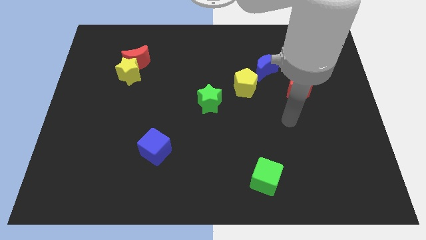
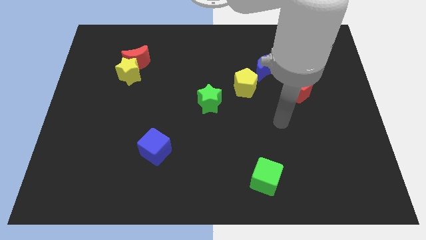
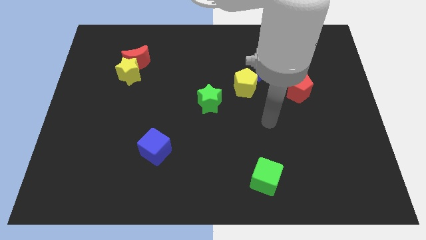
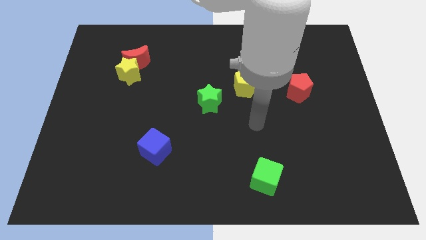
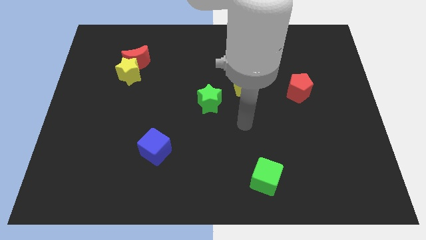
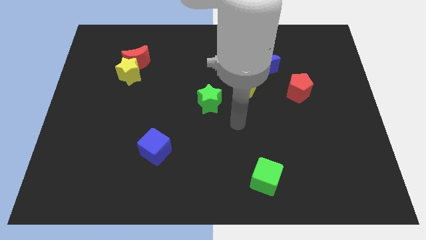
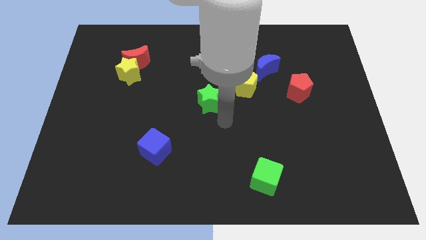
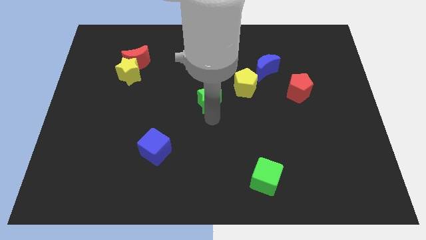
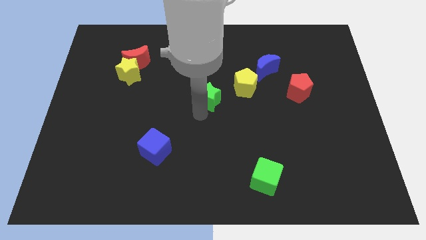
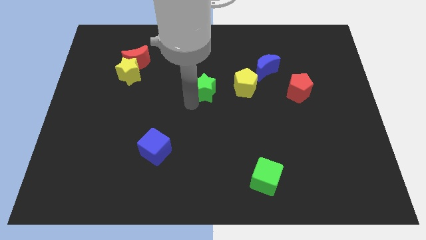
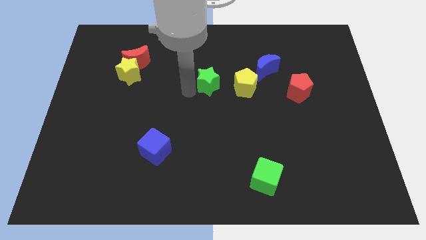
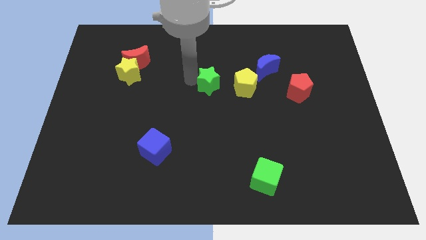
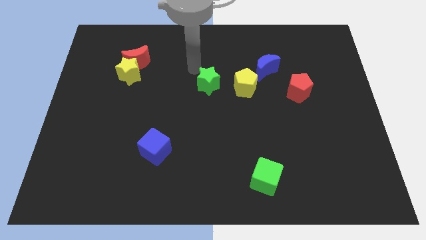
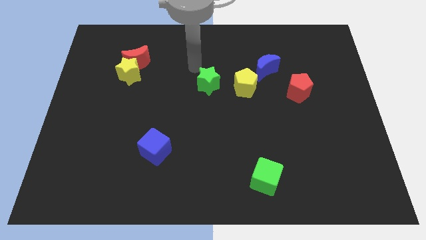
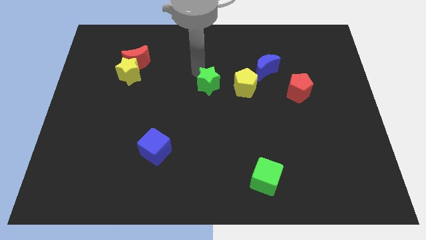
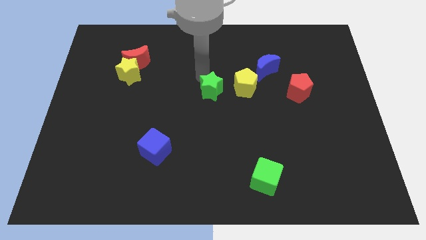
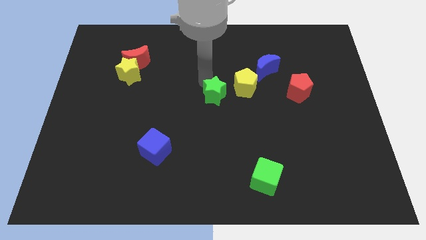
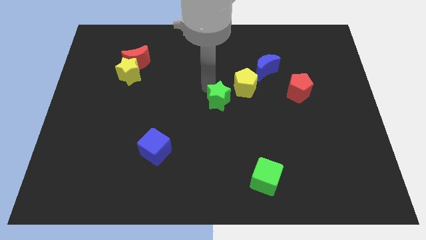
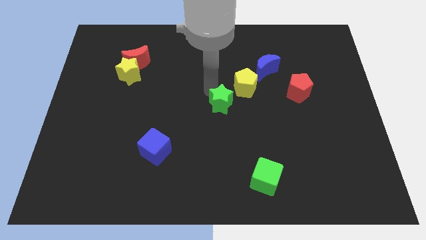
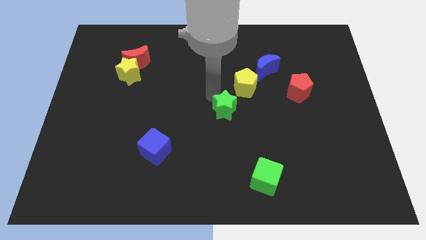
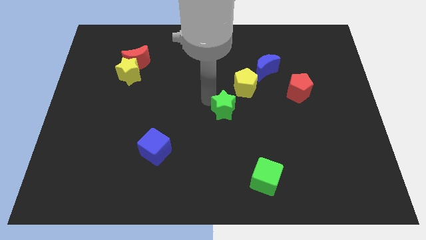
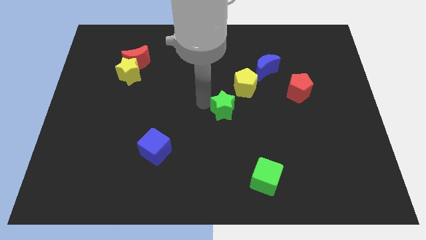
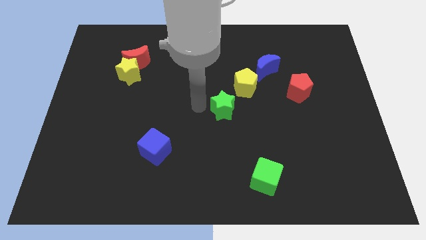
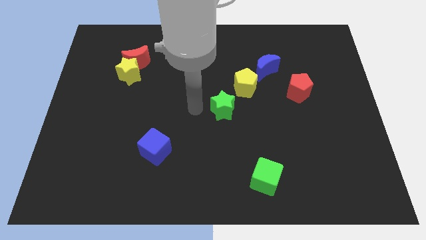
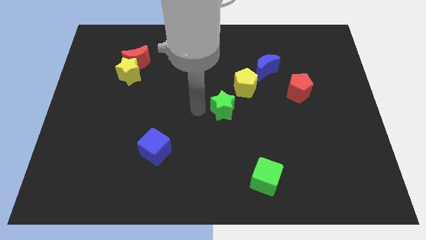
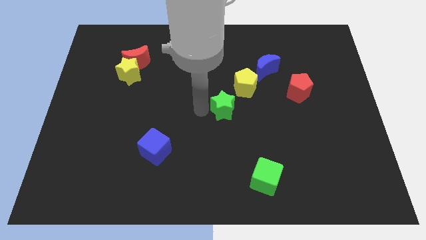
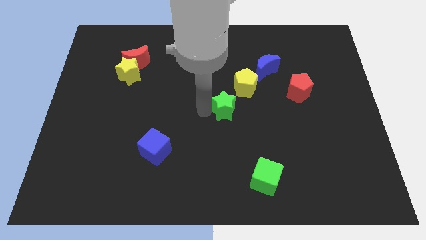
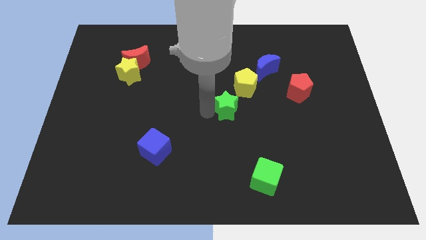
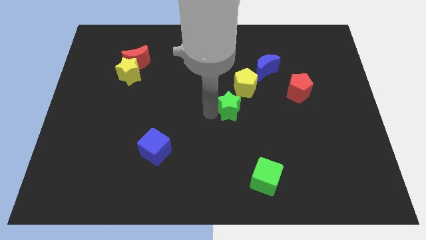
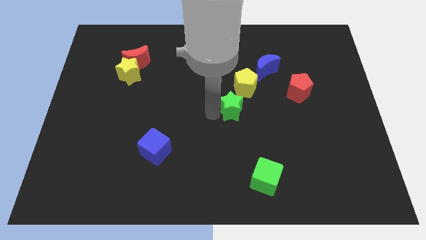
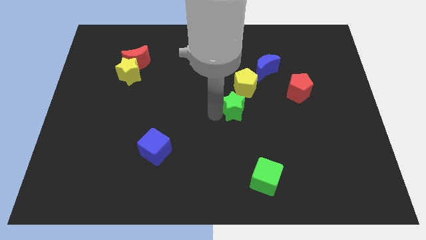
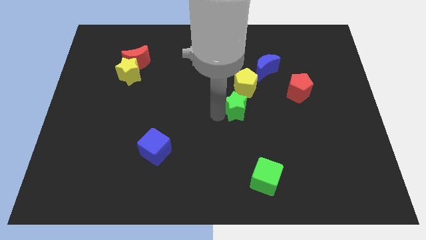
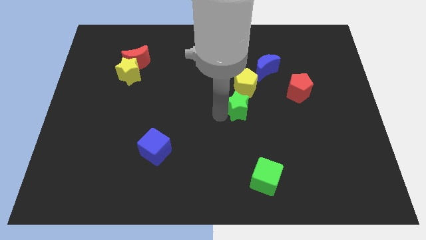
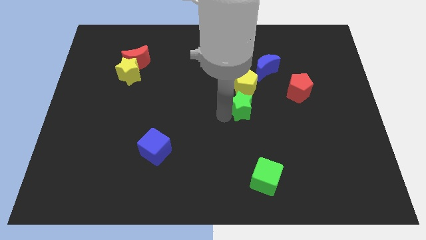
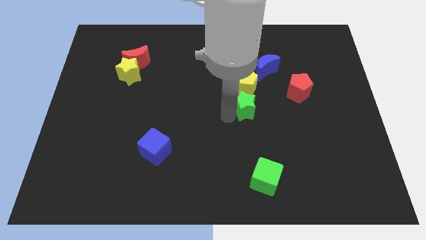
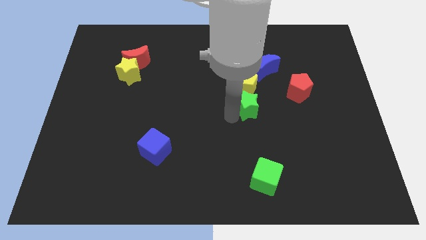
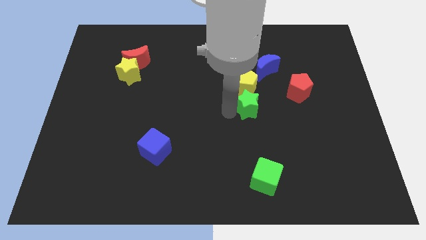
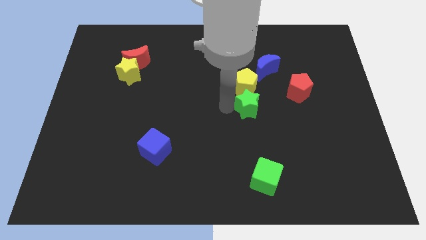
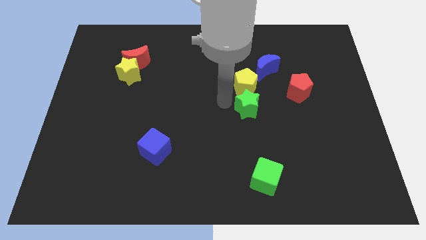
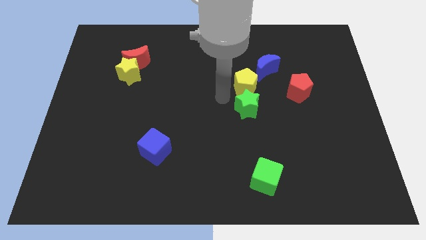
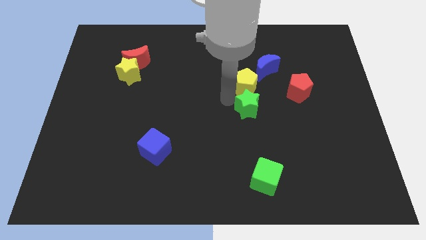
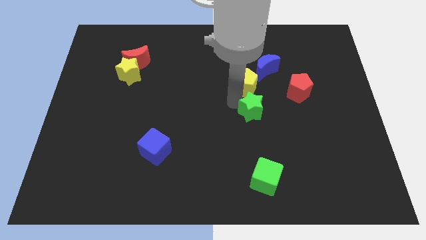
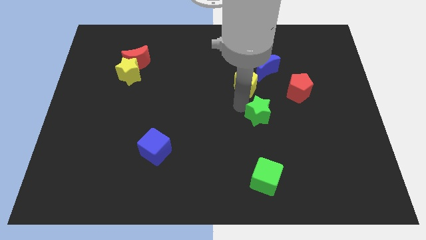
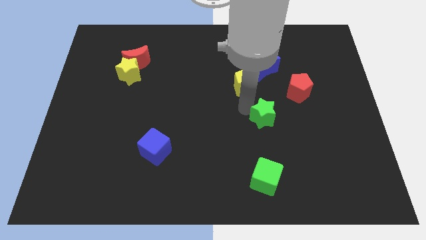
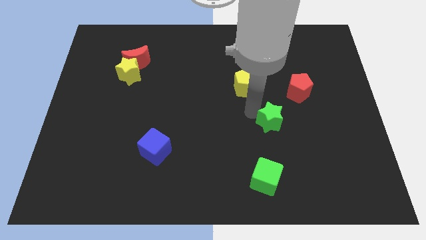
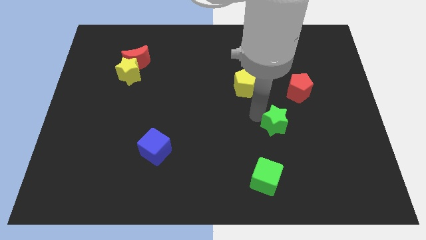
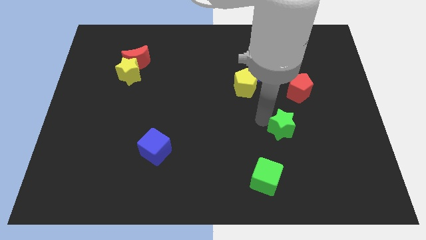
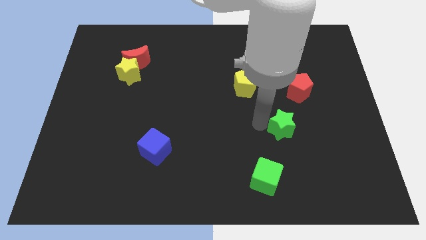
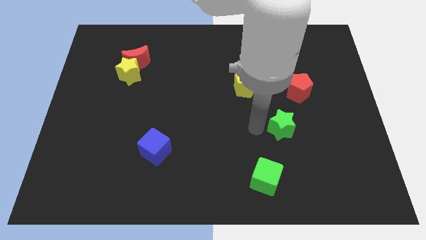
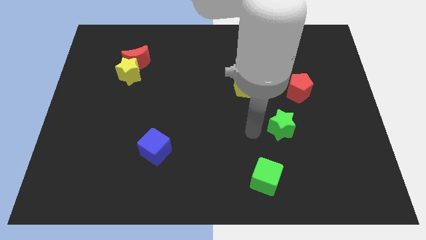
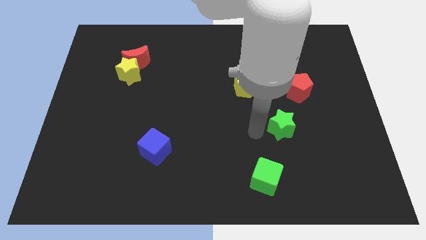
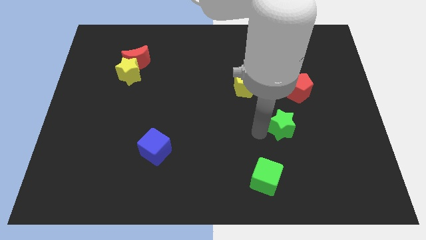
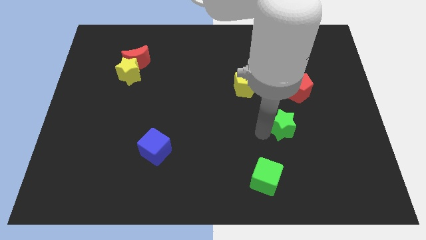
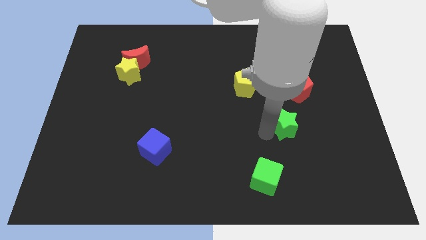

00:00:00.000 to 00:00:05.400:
move the green star to the bottom side of the red pentagon

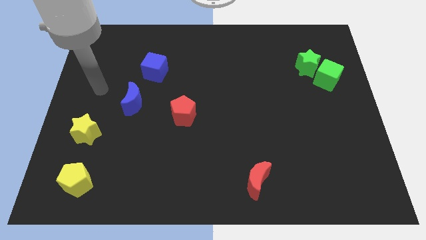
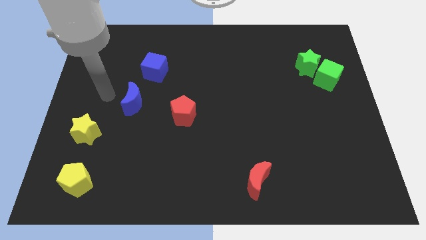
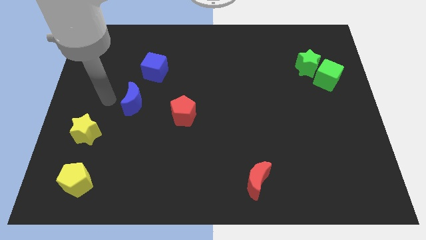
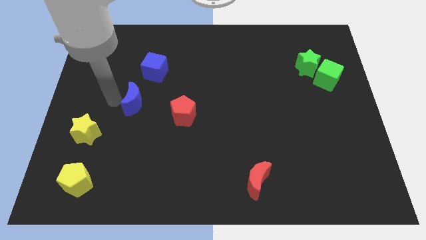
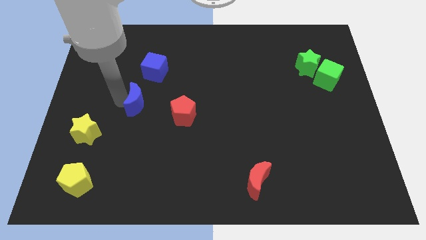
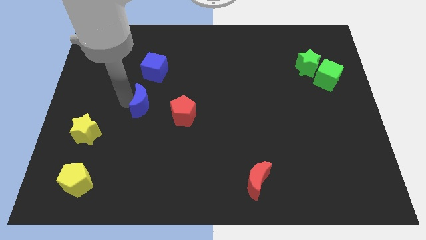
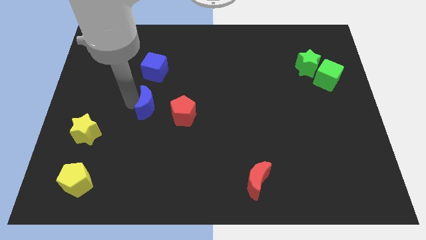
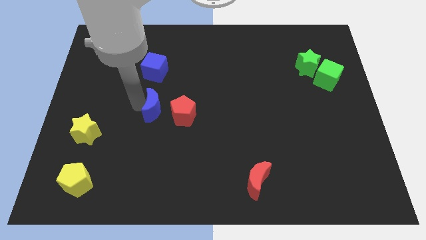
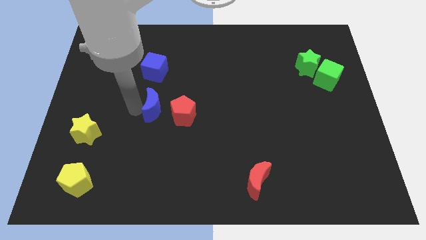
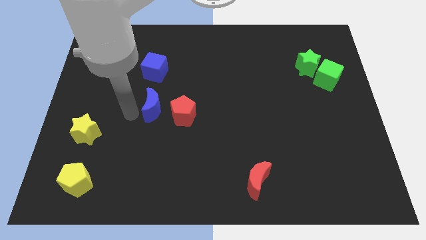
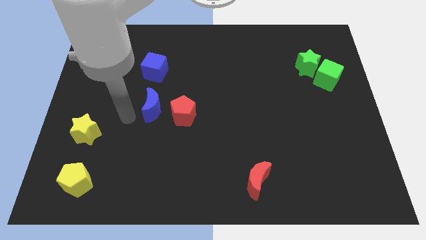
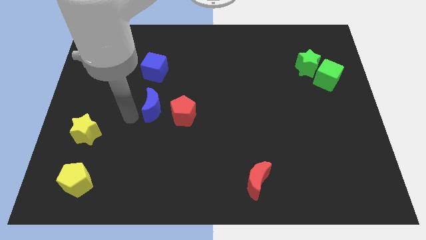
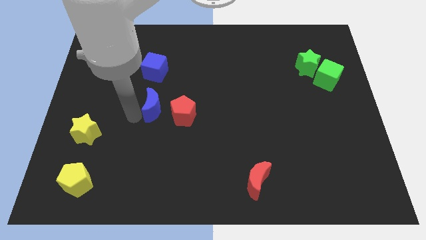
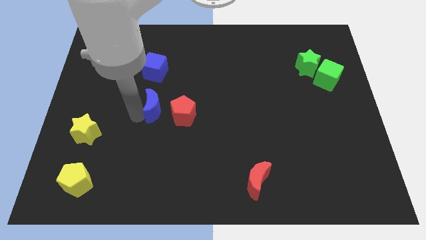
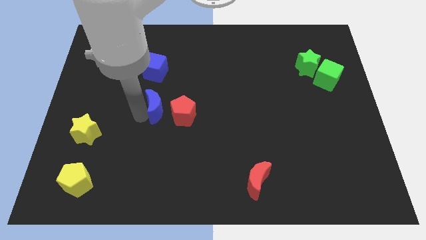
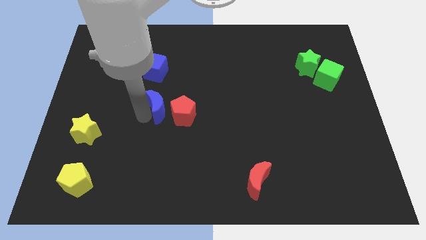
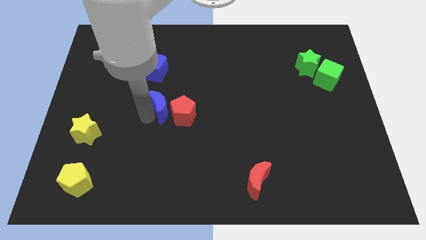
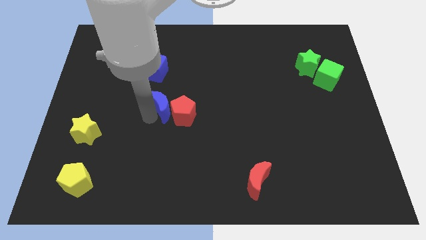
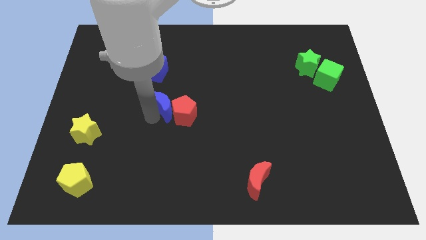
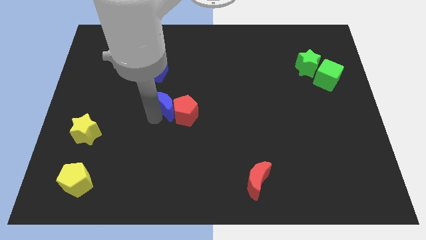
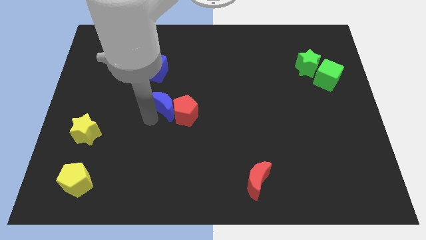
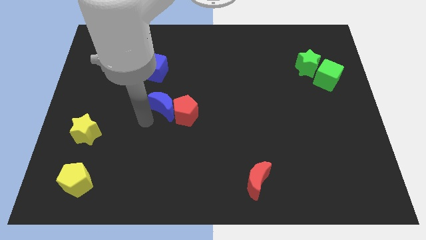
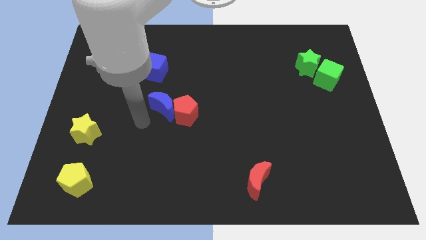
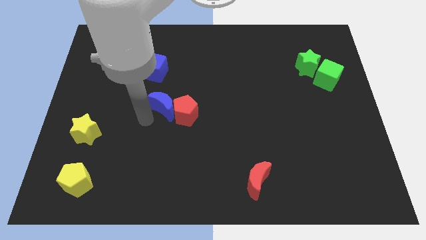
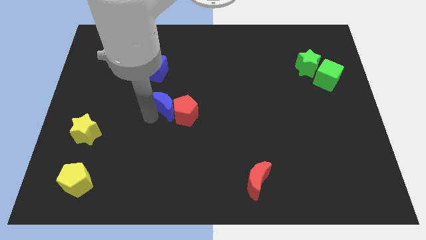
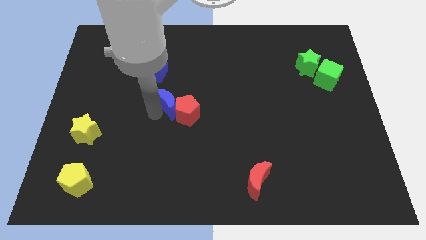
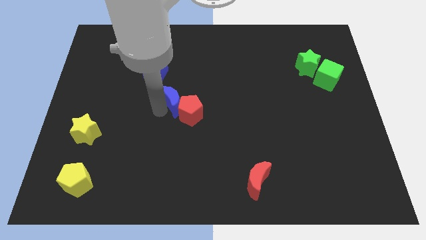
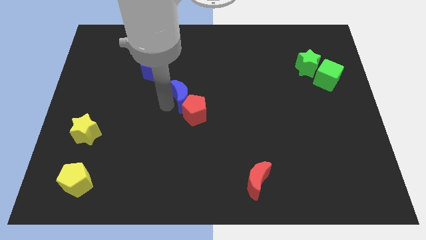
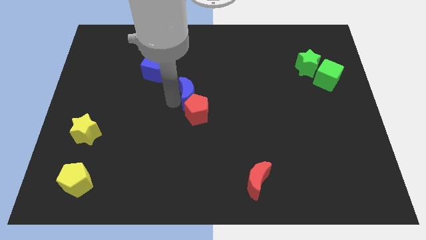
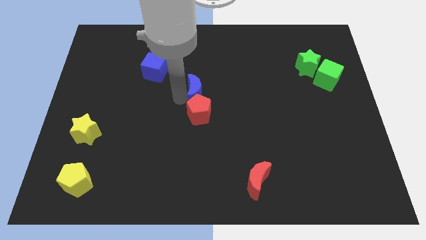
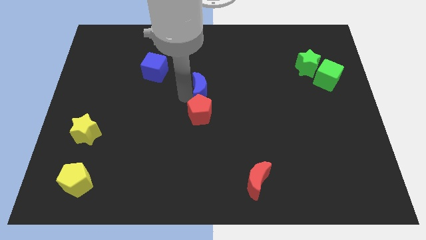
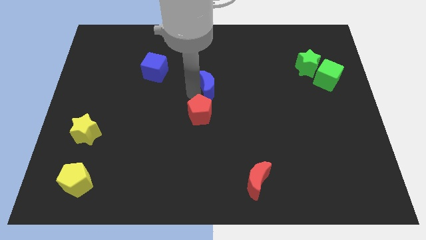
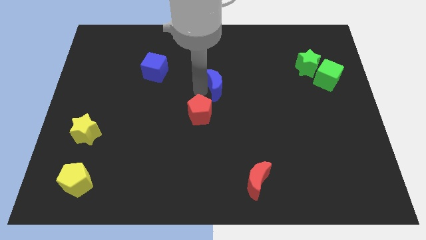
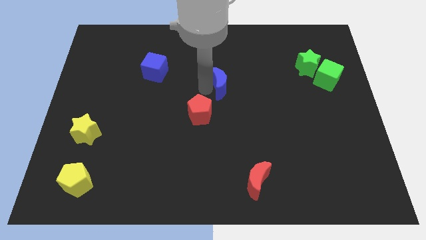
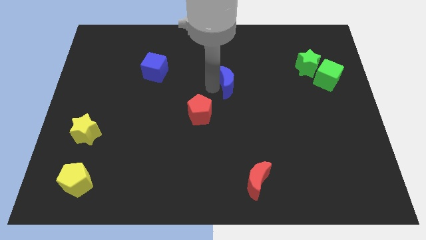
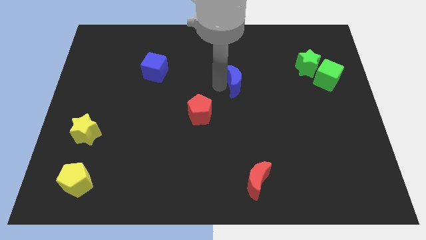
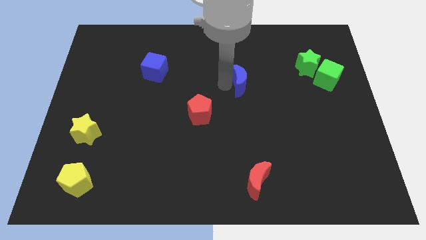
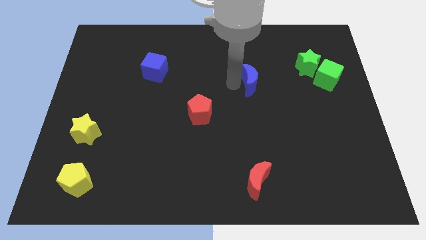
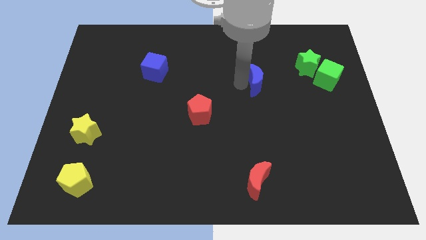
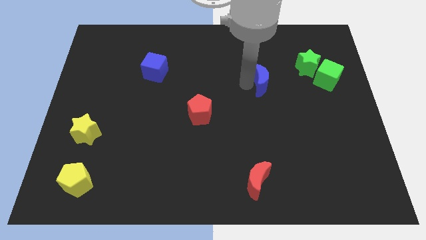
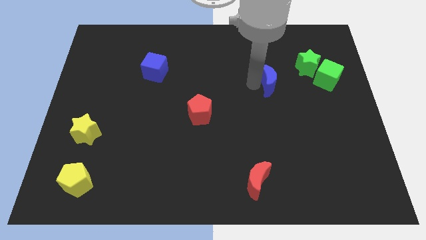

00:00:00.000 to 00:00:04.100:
push the blue moon to the left of the green cube
